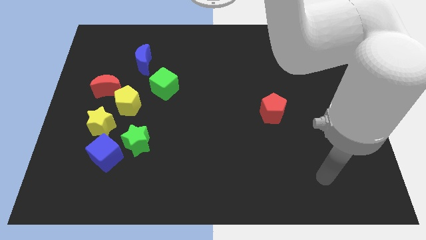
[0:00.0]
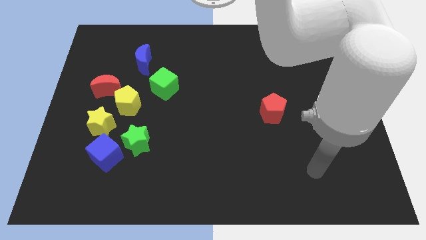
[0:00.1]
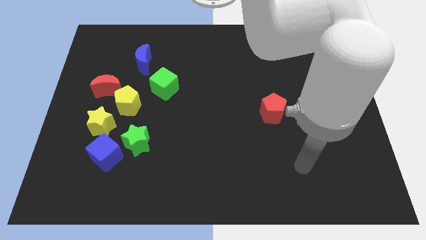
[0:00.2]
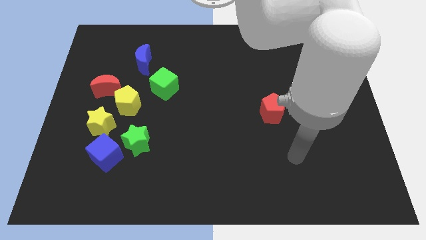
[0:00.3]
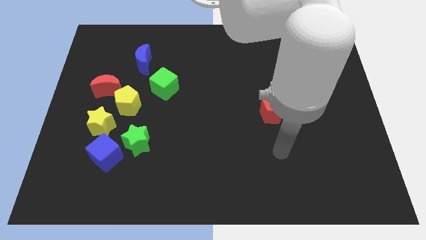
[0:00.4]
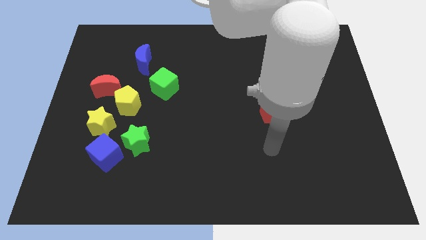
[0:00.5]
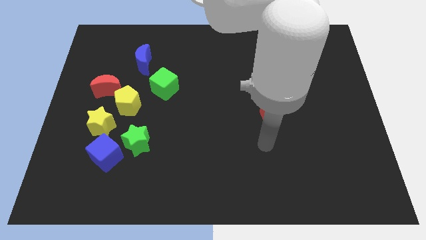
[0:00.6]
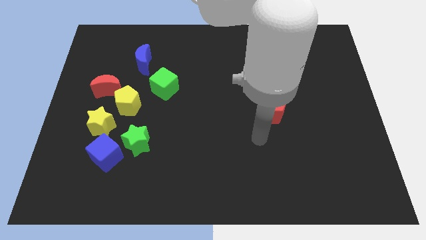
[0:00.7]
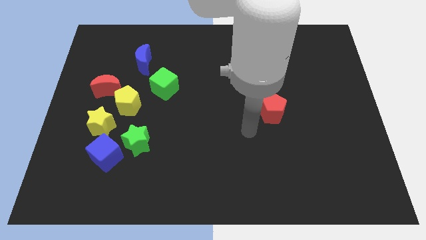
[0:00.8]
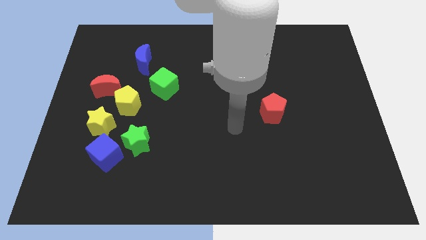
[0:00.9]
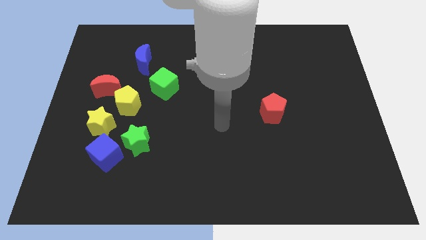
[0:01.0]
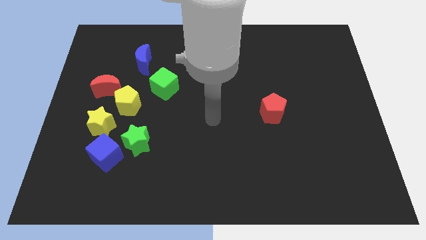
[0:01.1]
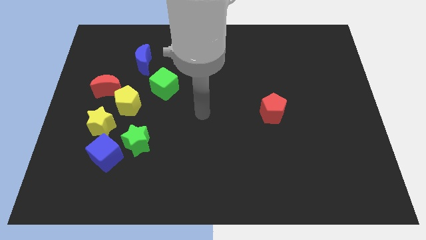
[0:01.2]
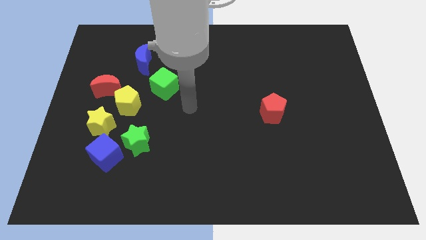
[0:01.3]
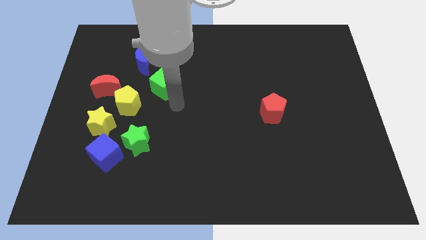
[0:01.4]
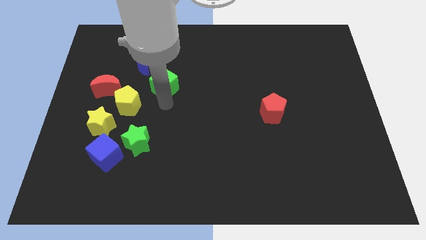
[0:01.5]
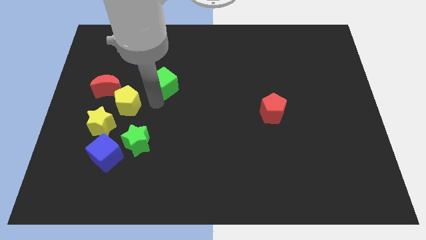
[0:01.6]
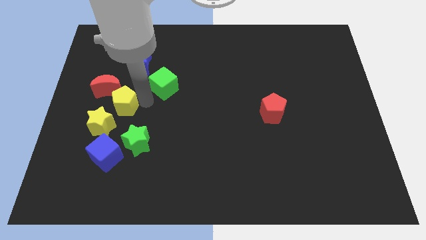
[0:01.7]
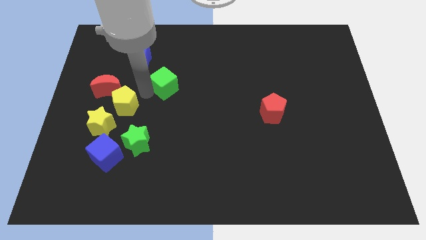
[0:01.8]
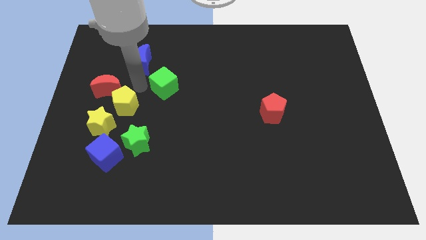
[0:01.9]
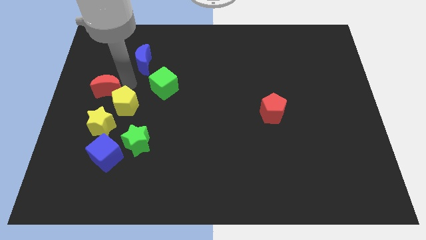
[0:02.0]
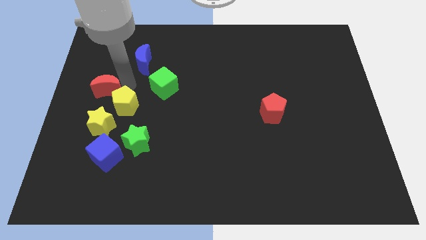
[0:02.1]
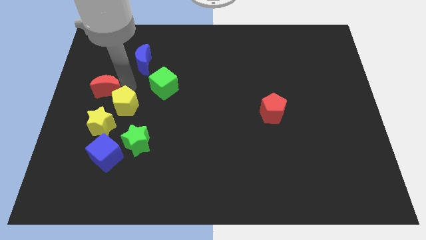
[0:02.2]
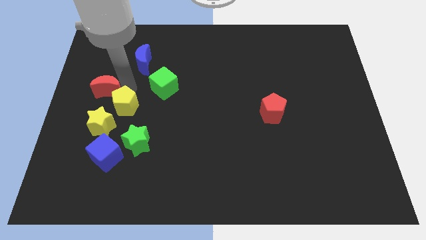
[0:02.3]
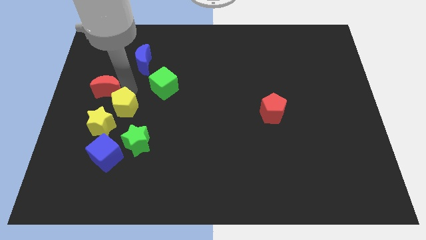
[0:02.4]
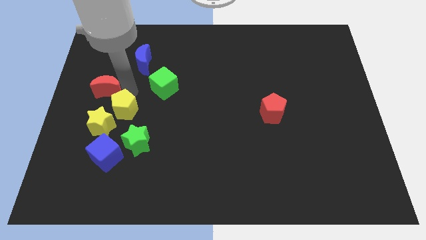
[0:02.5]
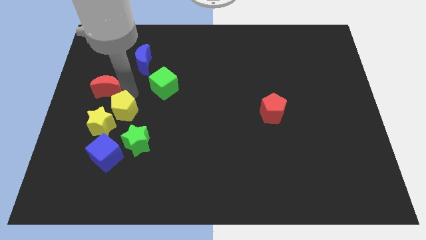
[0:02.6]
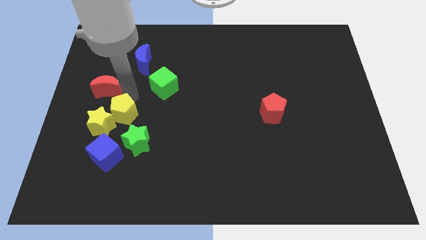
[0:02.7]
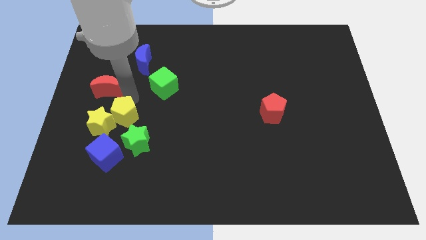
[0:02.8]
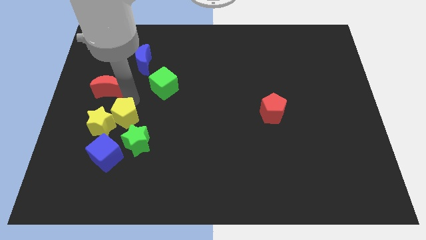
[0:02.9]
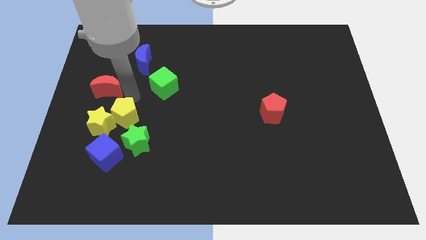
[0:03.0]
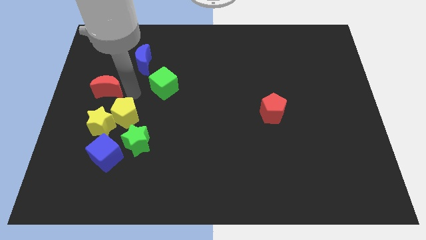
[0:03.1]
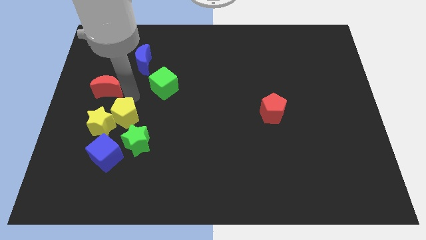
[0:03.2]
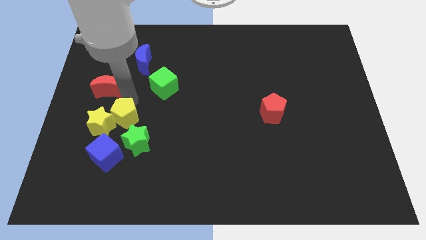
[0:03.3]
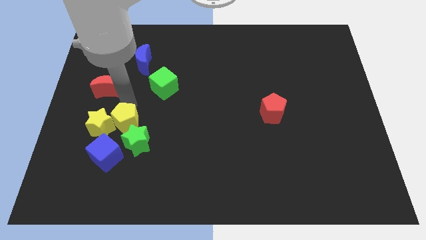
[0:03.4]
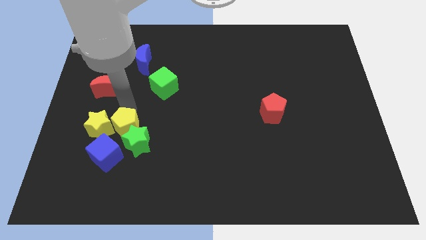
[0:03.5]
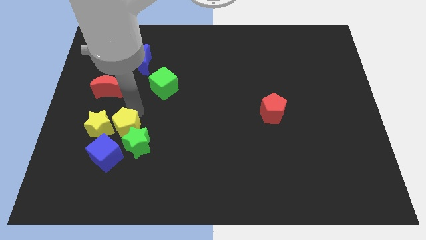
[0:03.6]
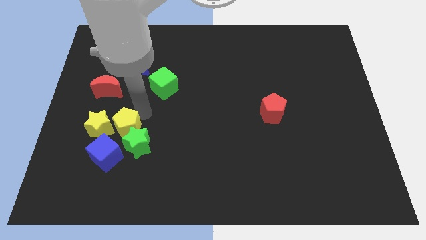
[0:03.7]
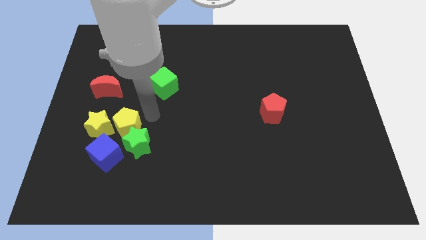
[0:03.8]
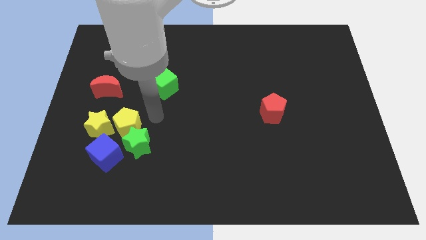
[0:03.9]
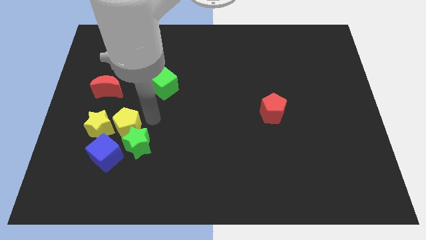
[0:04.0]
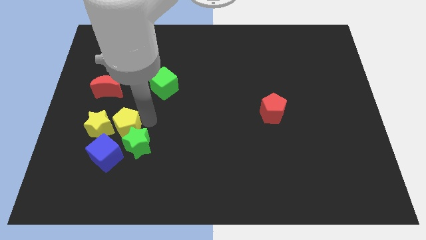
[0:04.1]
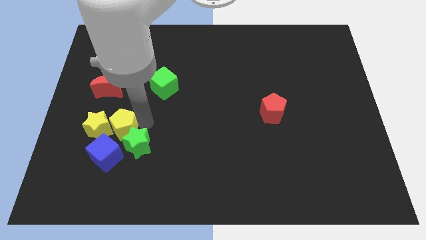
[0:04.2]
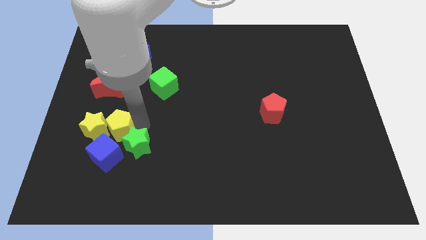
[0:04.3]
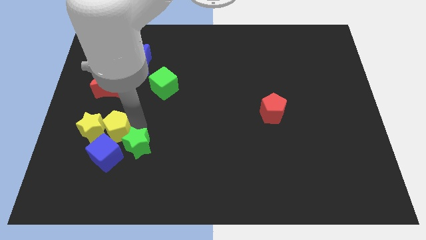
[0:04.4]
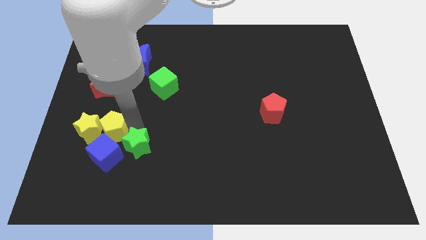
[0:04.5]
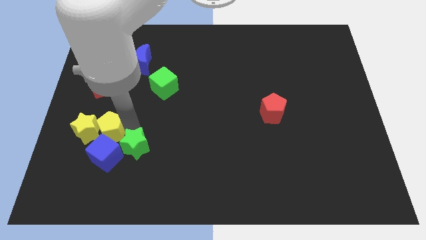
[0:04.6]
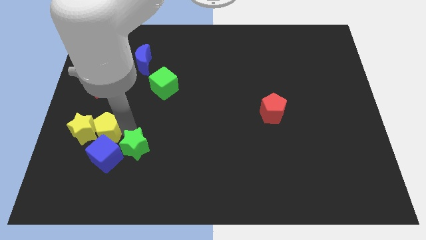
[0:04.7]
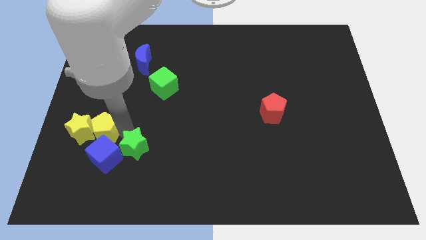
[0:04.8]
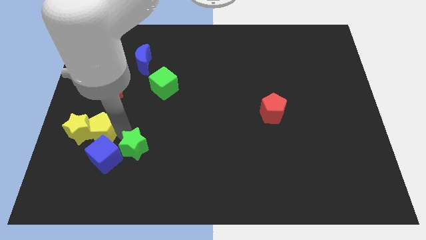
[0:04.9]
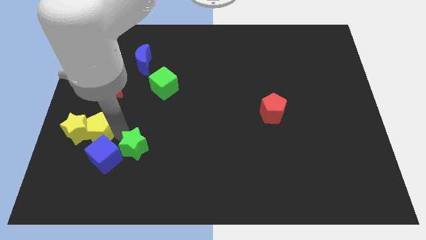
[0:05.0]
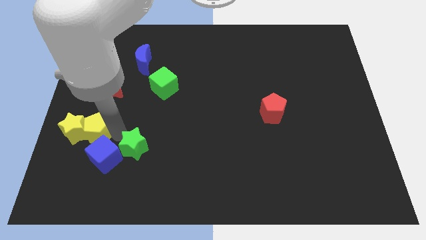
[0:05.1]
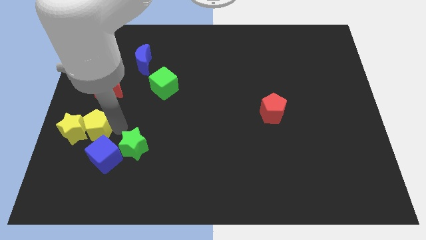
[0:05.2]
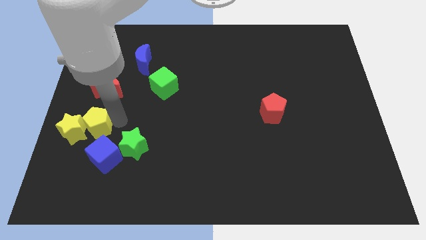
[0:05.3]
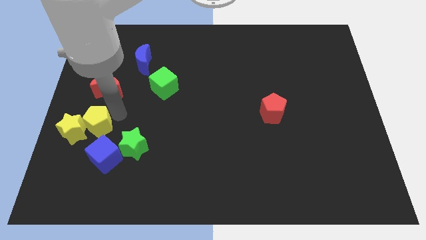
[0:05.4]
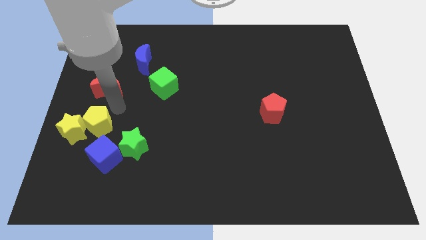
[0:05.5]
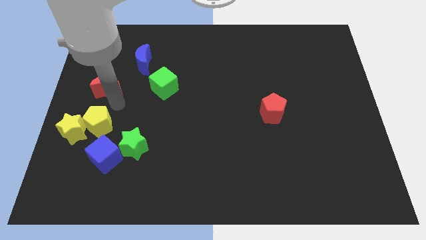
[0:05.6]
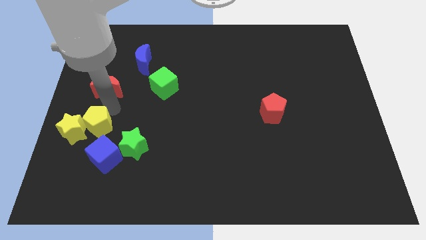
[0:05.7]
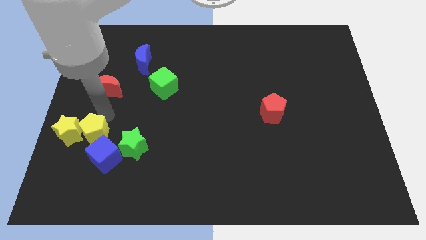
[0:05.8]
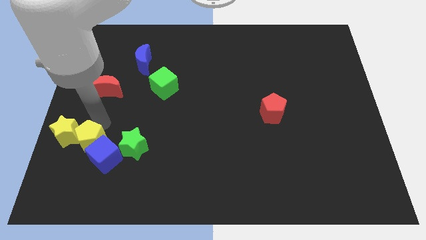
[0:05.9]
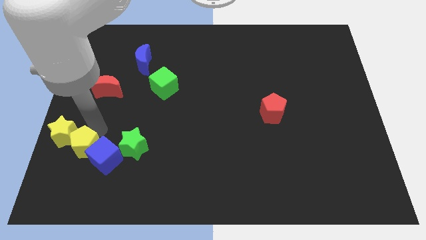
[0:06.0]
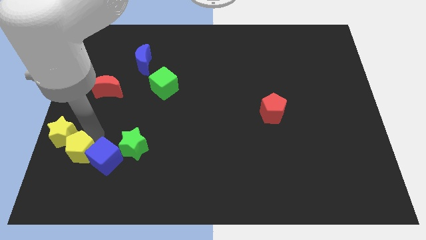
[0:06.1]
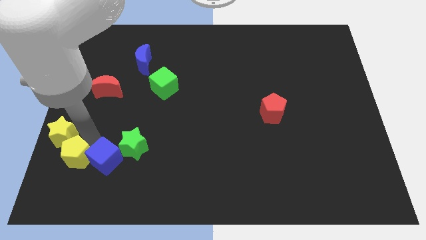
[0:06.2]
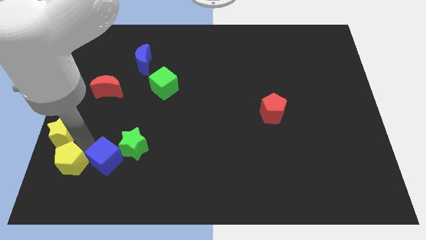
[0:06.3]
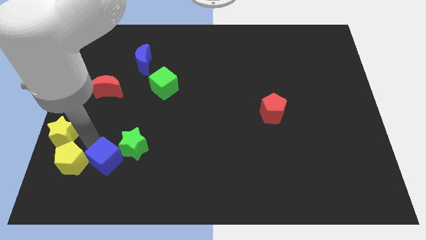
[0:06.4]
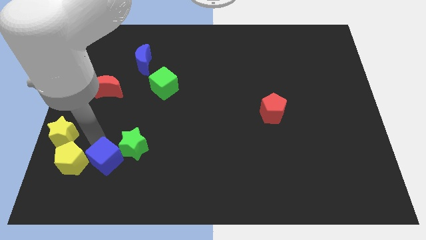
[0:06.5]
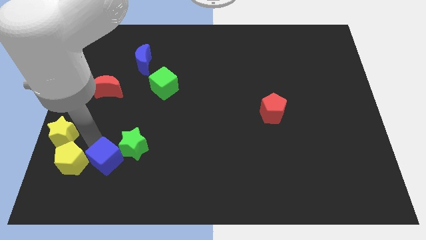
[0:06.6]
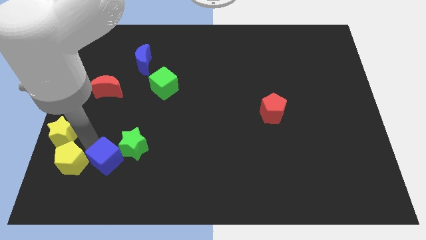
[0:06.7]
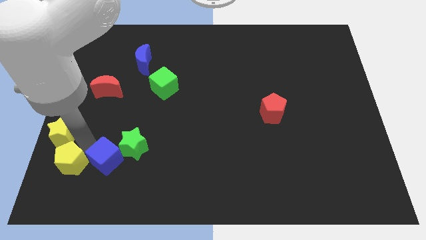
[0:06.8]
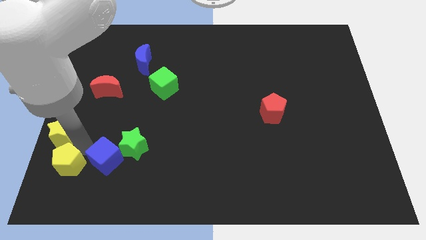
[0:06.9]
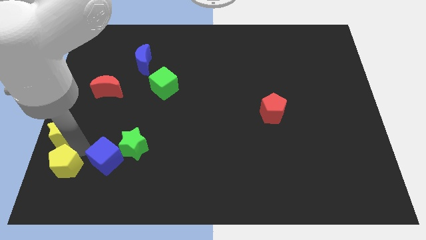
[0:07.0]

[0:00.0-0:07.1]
push the yellow pentagon to the bottom left of the board

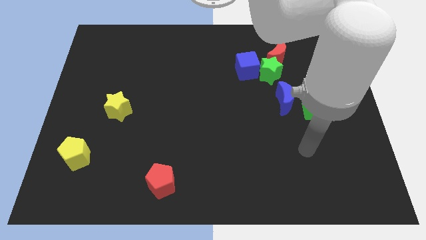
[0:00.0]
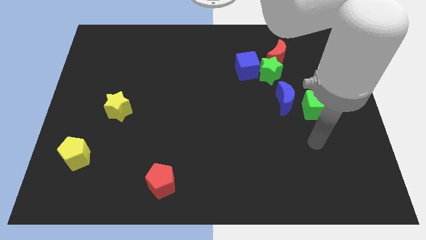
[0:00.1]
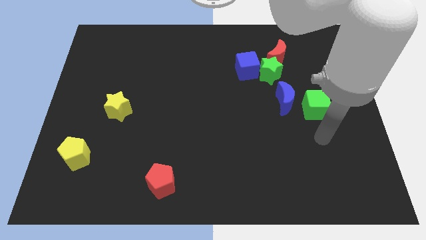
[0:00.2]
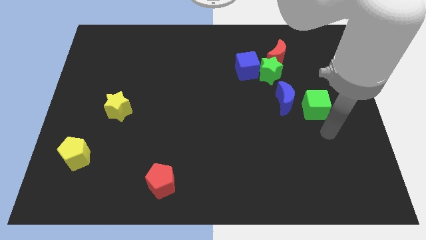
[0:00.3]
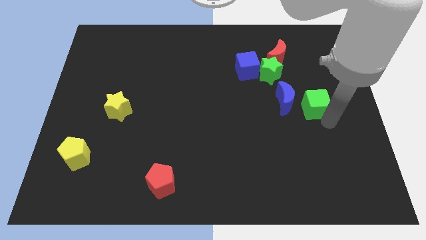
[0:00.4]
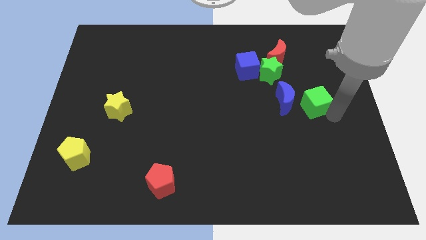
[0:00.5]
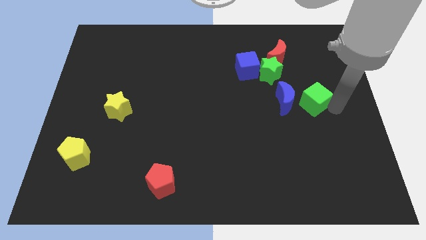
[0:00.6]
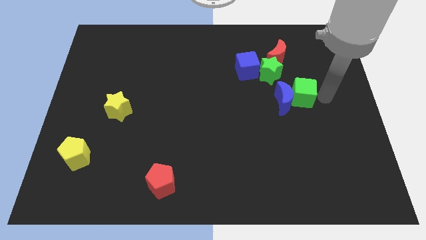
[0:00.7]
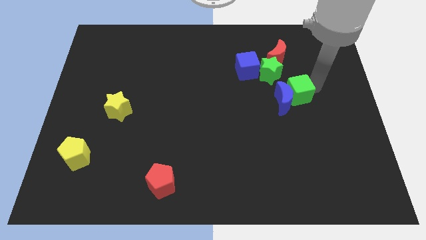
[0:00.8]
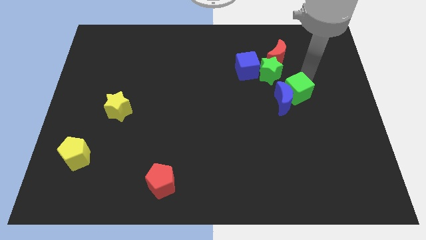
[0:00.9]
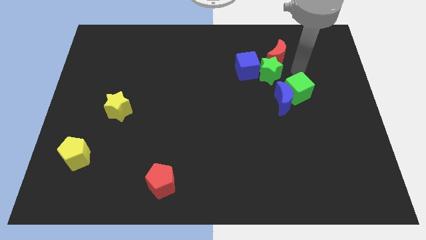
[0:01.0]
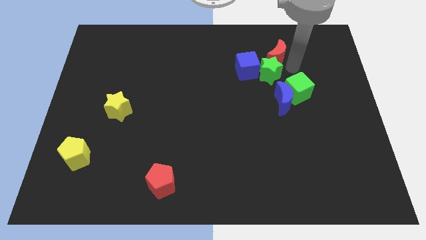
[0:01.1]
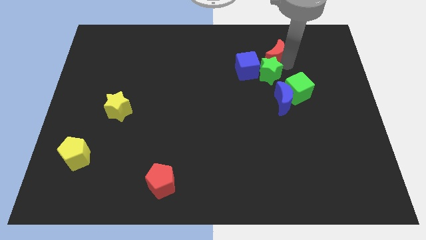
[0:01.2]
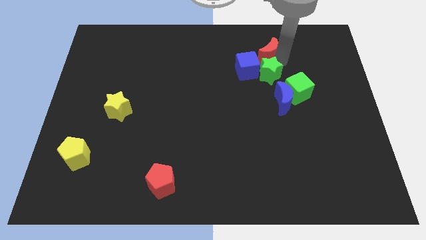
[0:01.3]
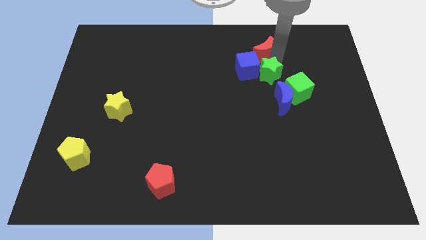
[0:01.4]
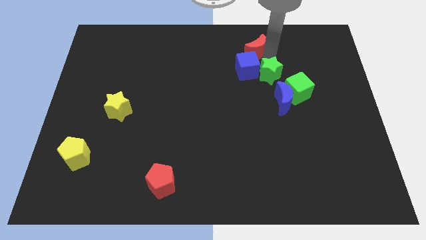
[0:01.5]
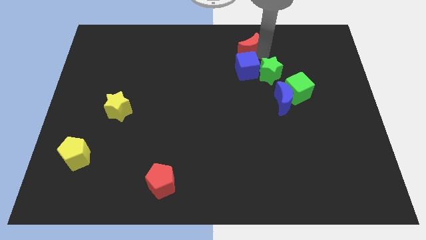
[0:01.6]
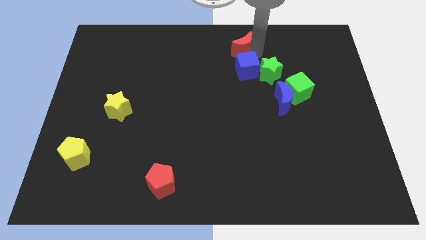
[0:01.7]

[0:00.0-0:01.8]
push the red moon to the towards your base
